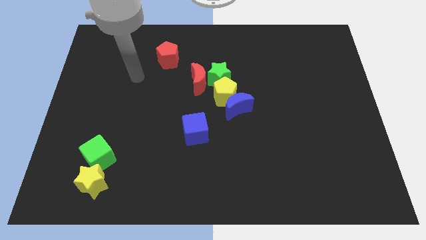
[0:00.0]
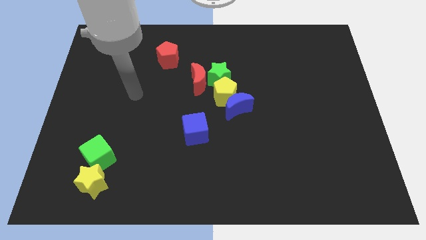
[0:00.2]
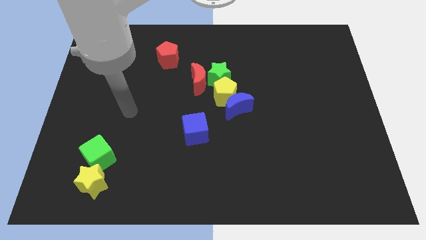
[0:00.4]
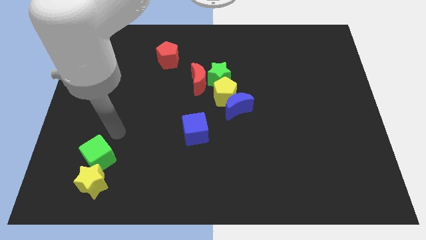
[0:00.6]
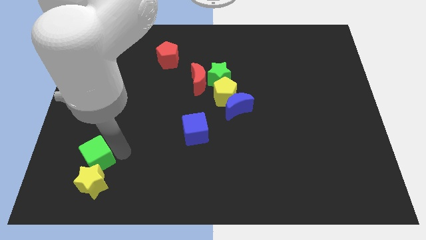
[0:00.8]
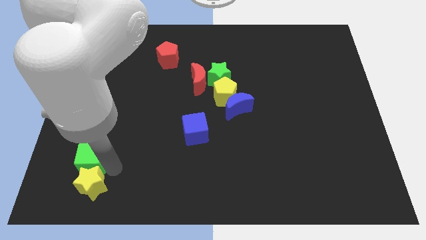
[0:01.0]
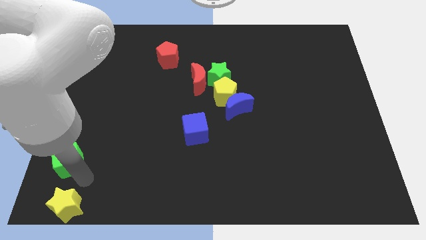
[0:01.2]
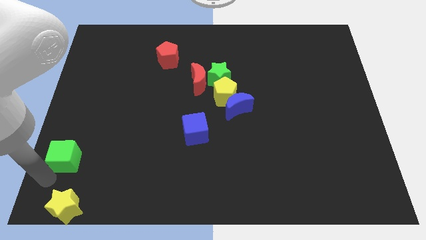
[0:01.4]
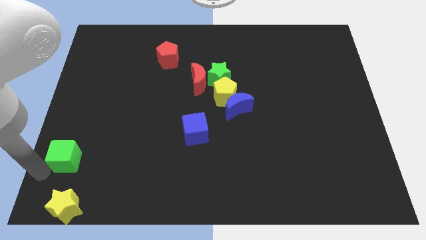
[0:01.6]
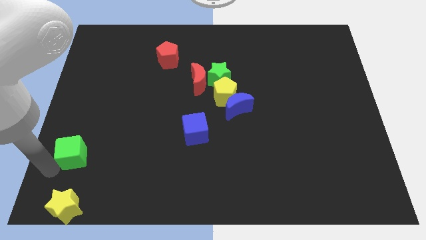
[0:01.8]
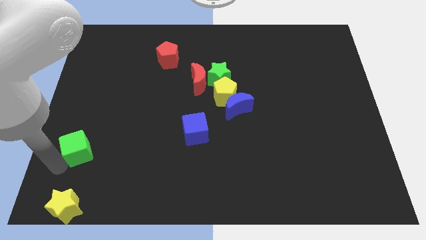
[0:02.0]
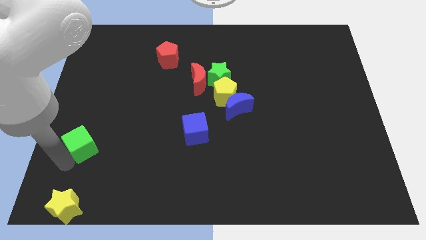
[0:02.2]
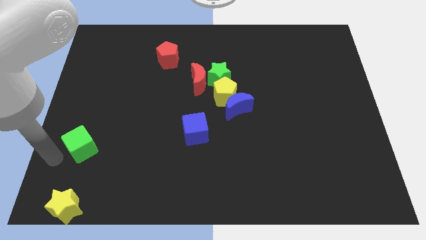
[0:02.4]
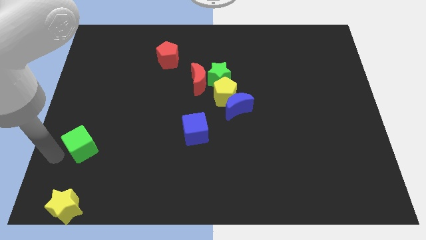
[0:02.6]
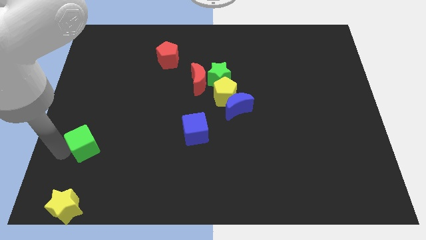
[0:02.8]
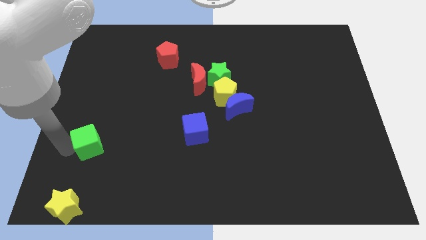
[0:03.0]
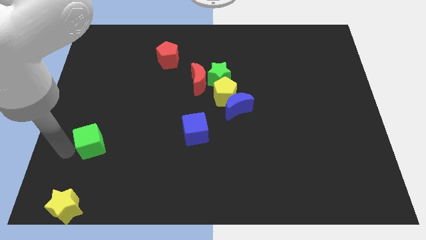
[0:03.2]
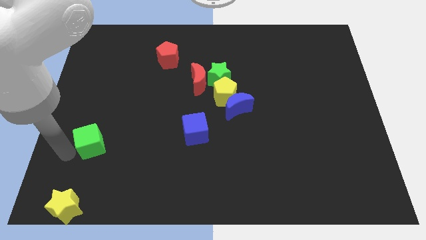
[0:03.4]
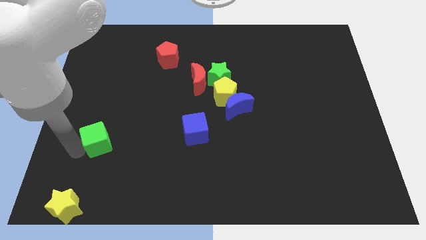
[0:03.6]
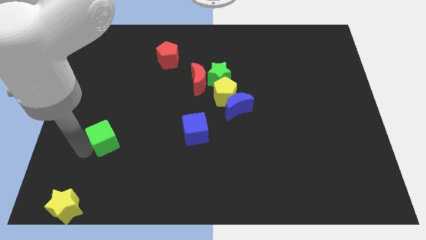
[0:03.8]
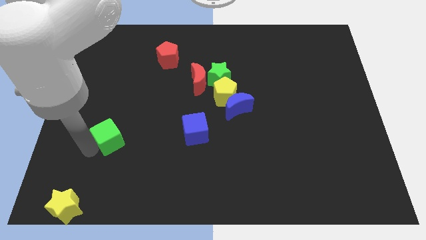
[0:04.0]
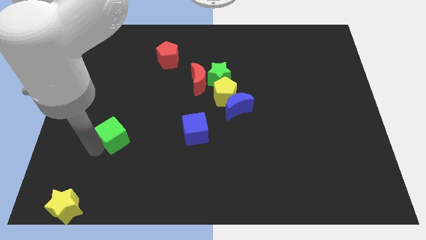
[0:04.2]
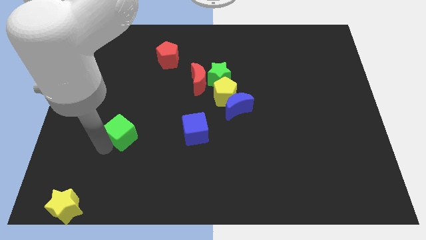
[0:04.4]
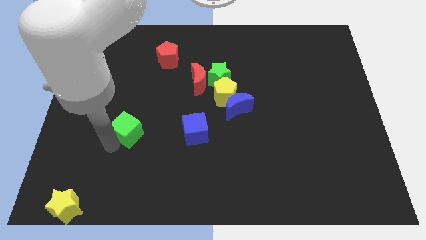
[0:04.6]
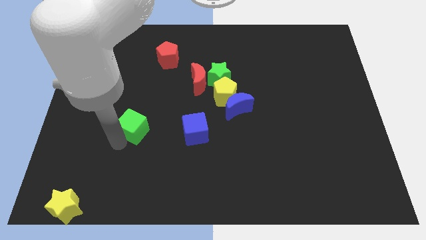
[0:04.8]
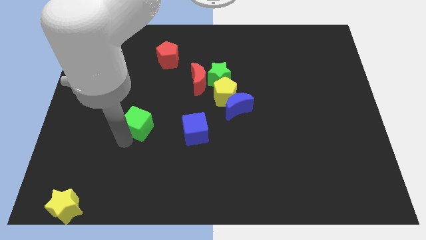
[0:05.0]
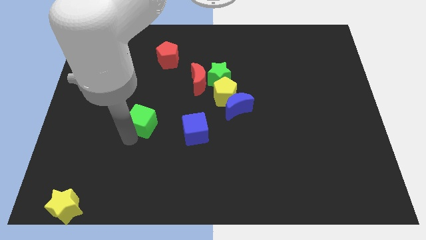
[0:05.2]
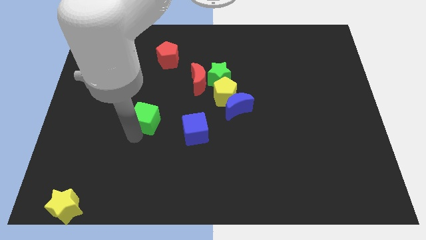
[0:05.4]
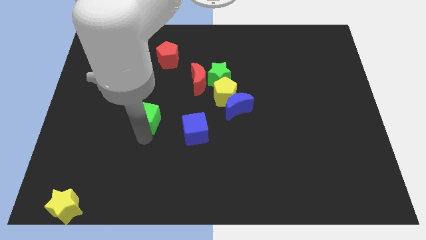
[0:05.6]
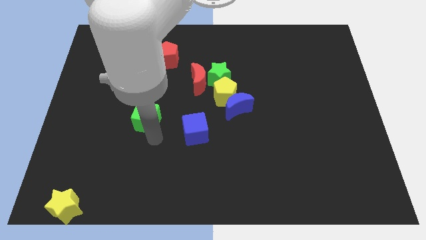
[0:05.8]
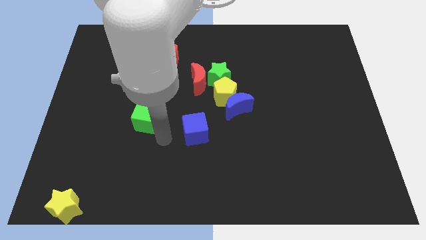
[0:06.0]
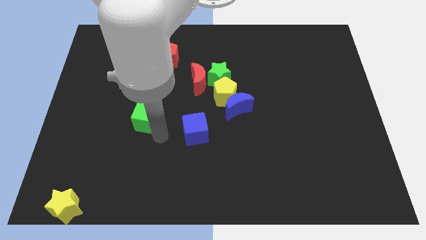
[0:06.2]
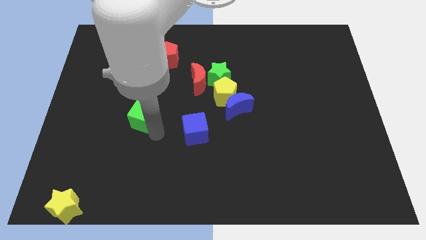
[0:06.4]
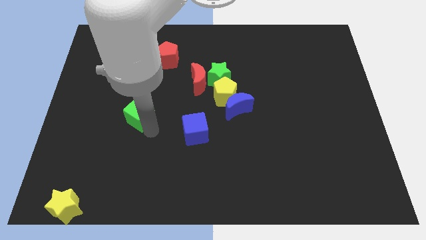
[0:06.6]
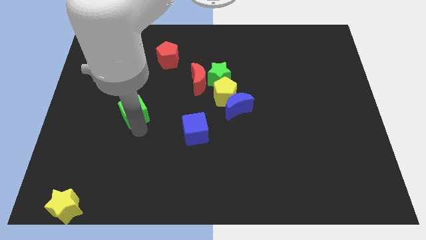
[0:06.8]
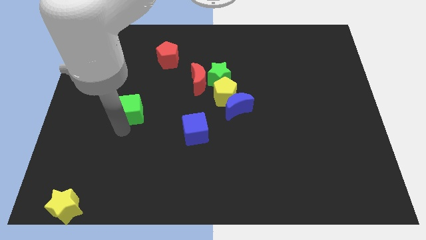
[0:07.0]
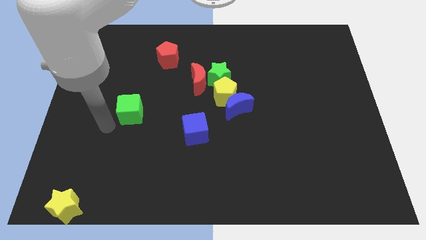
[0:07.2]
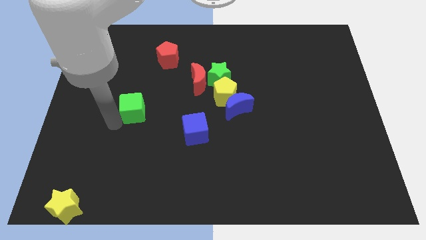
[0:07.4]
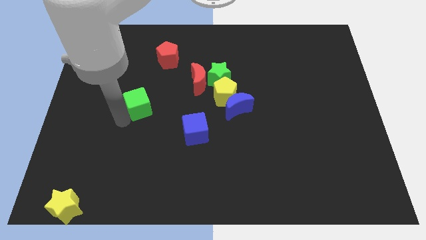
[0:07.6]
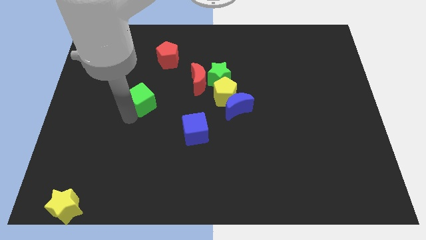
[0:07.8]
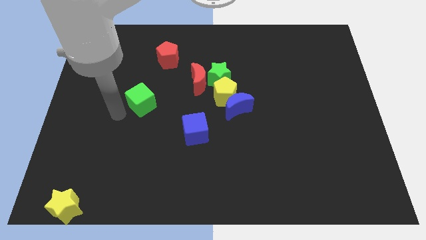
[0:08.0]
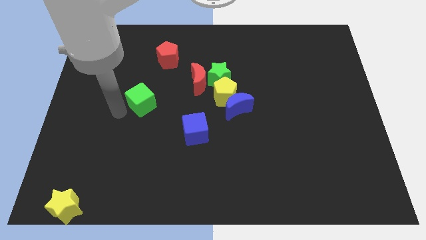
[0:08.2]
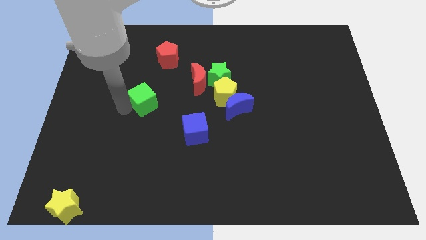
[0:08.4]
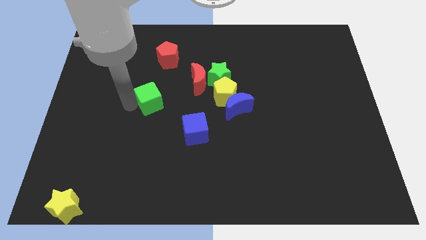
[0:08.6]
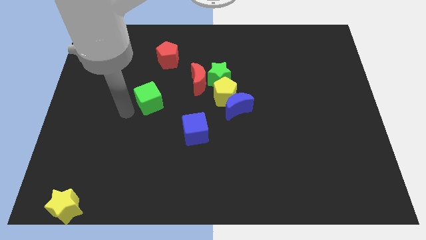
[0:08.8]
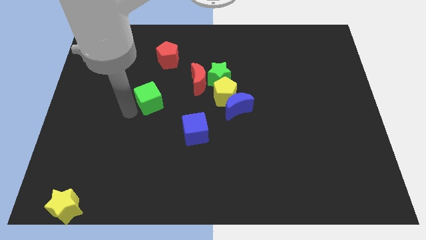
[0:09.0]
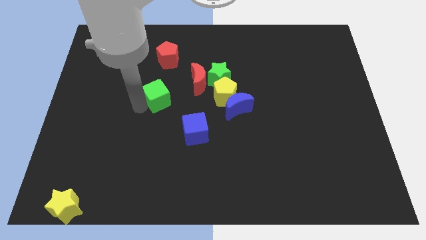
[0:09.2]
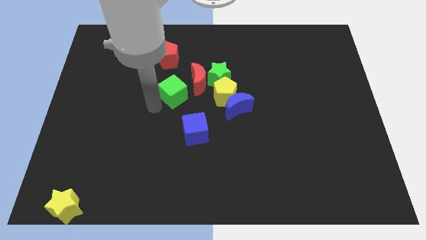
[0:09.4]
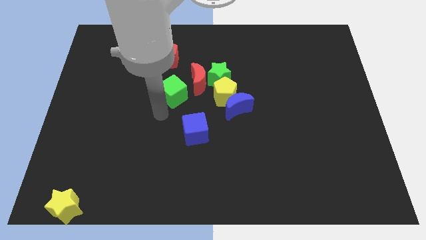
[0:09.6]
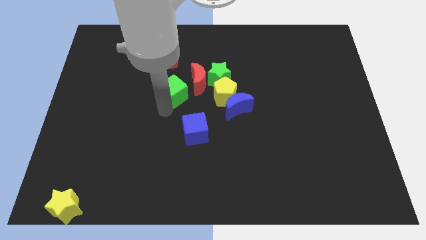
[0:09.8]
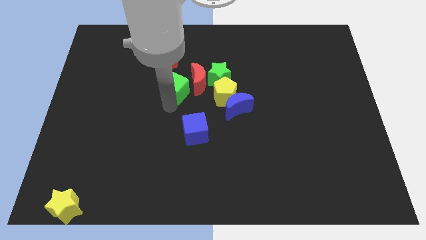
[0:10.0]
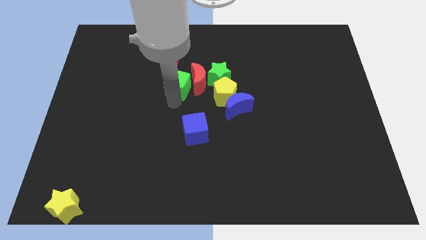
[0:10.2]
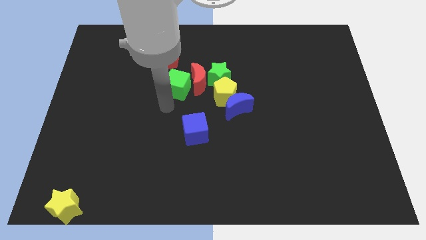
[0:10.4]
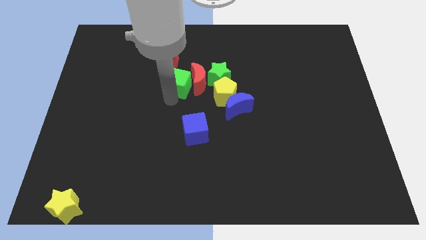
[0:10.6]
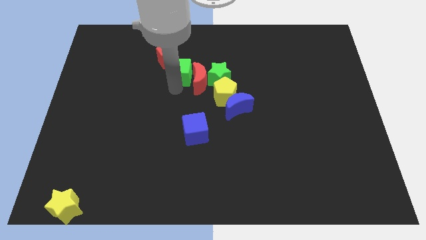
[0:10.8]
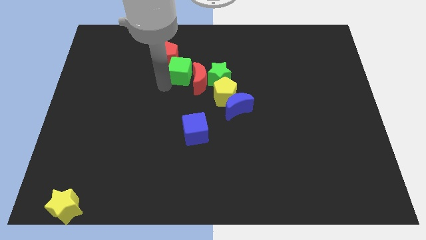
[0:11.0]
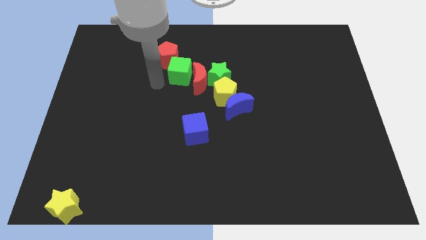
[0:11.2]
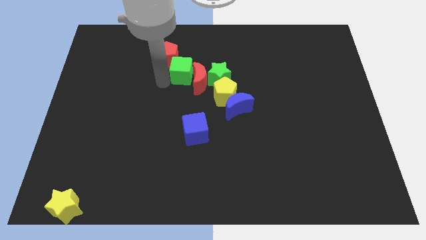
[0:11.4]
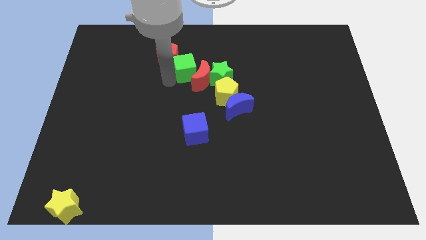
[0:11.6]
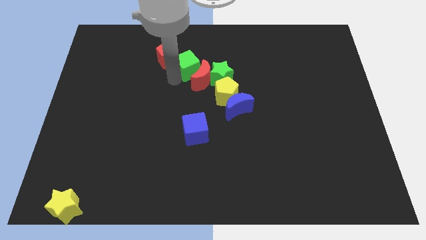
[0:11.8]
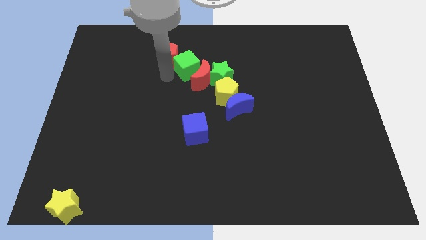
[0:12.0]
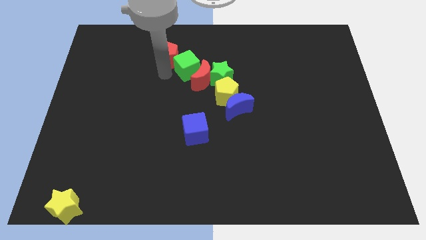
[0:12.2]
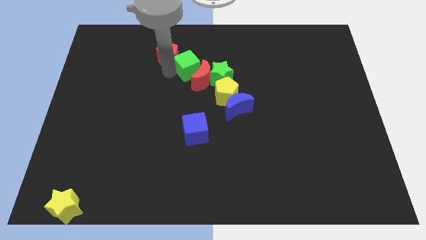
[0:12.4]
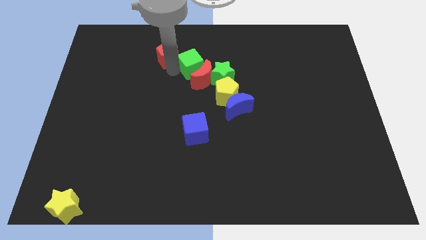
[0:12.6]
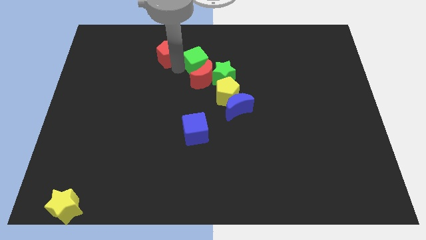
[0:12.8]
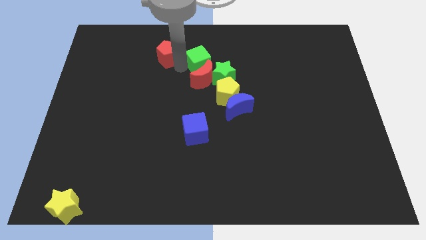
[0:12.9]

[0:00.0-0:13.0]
slide the green cube to the top right side of the red moon
